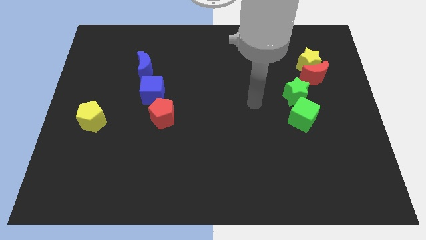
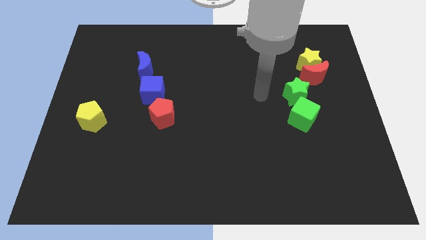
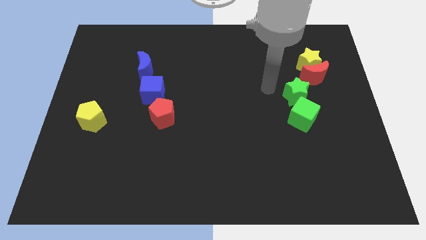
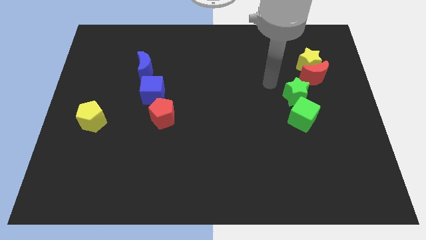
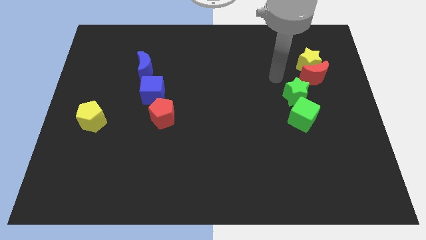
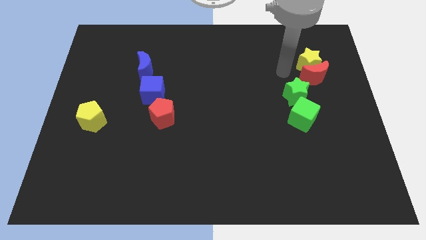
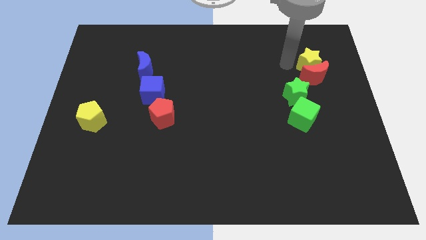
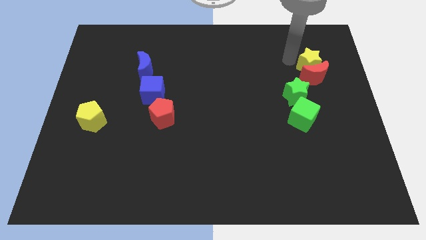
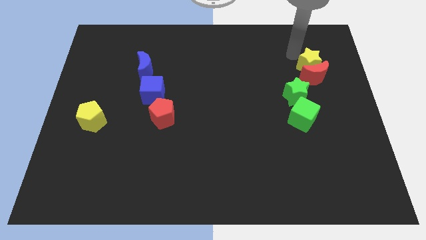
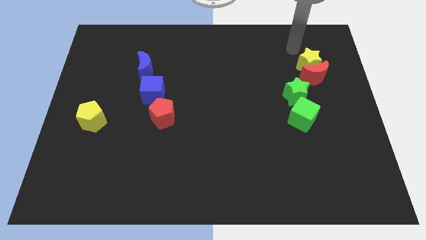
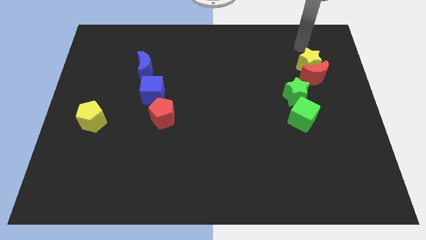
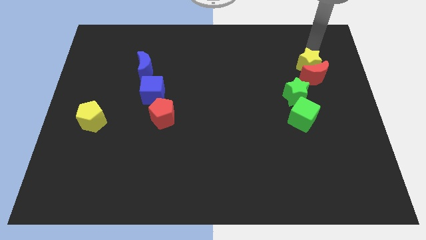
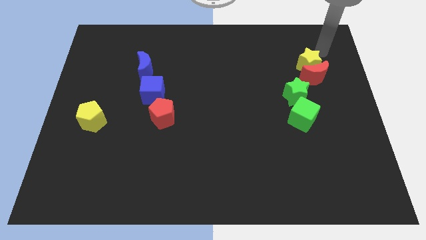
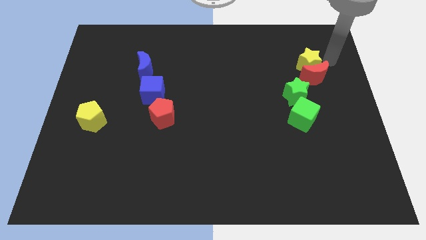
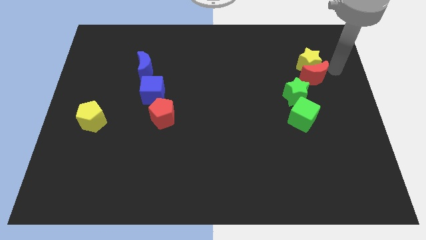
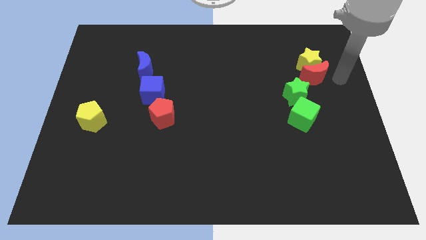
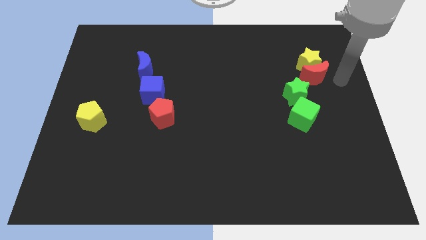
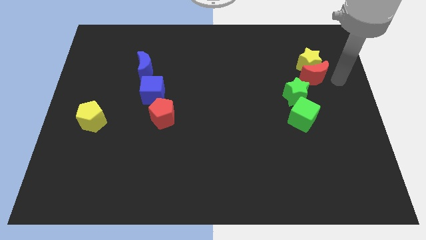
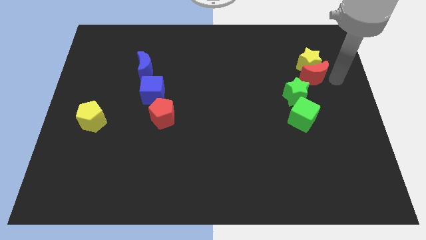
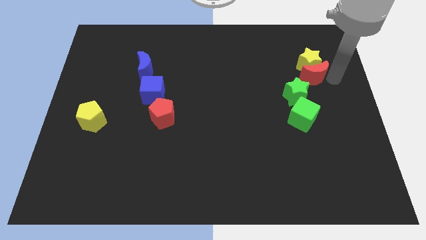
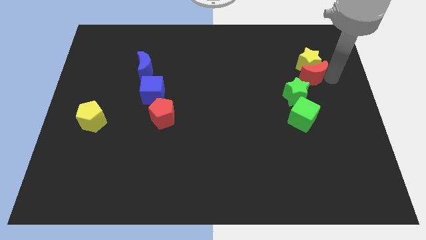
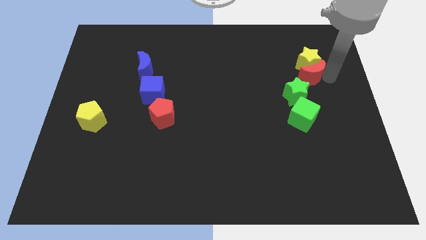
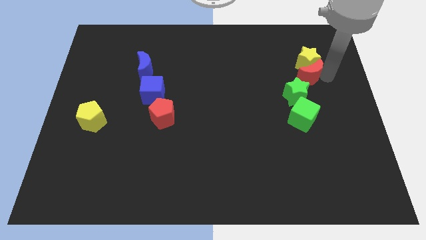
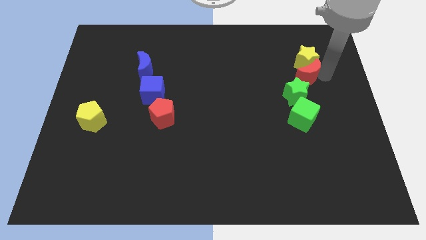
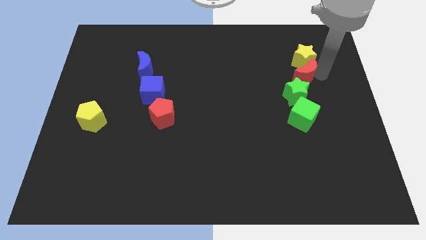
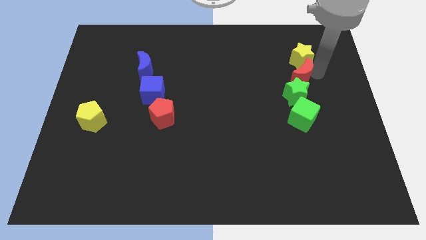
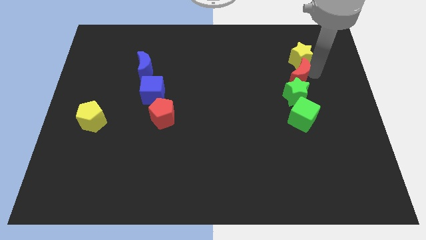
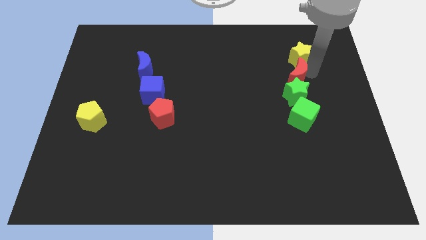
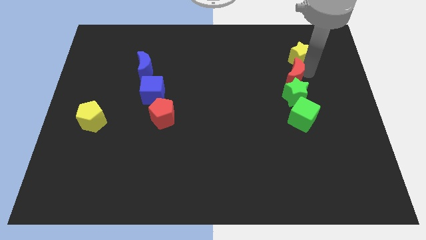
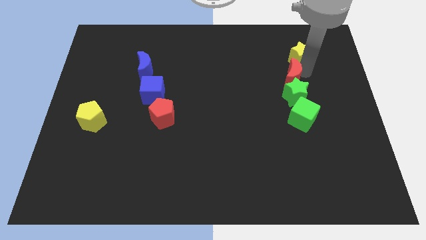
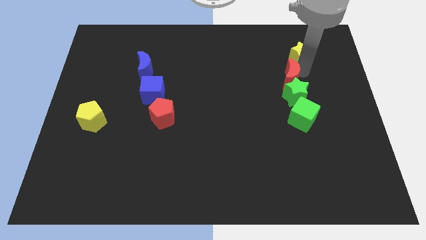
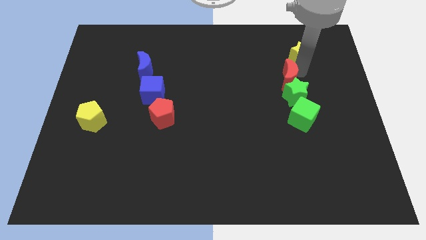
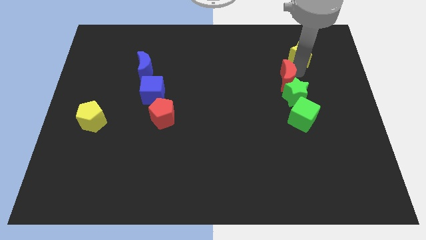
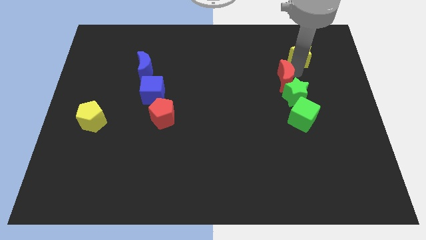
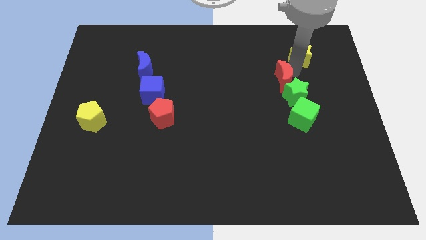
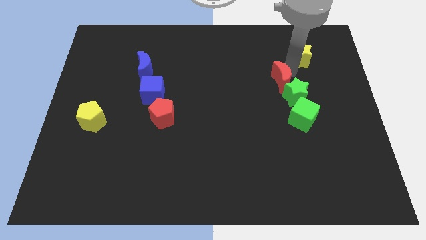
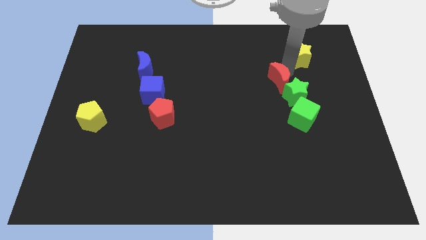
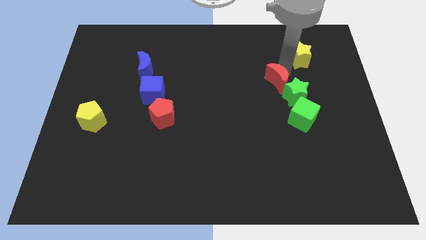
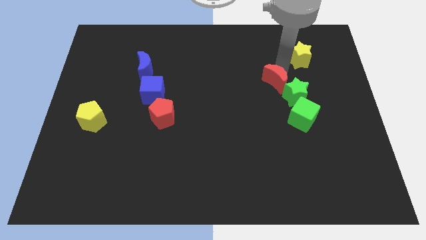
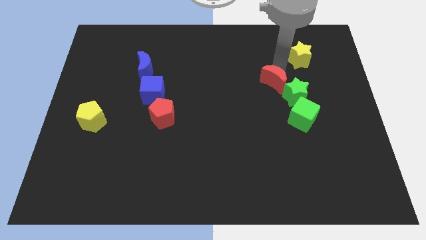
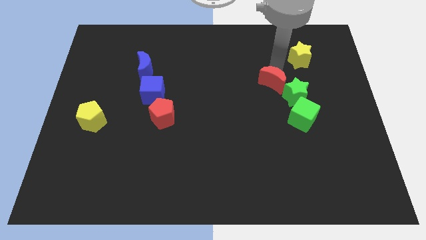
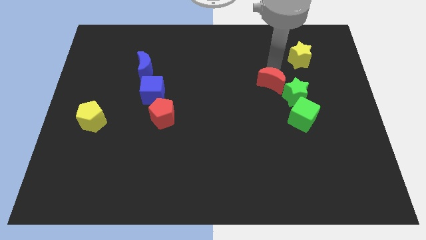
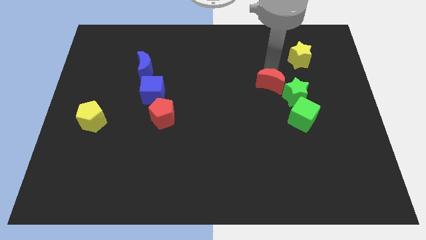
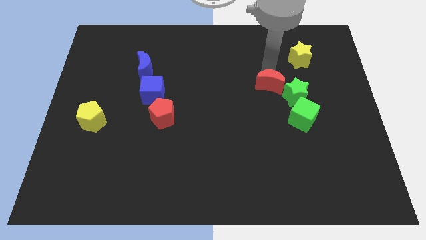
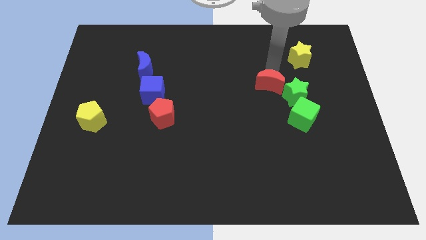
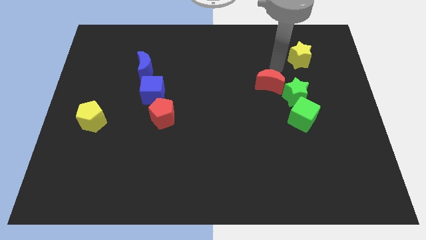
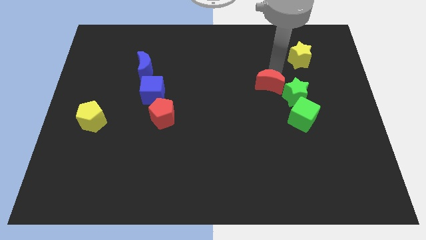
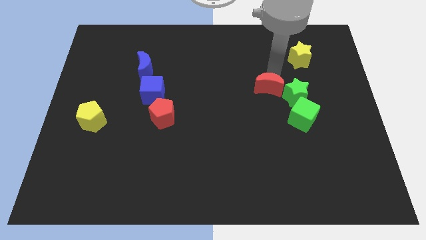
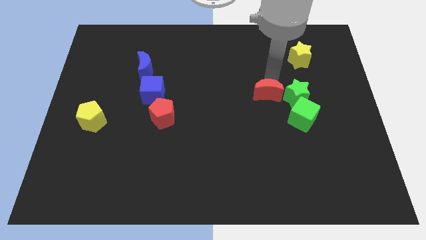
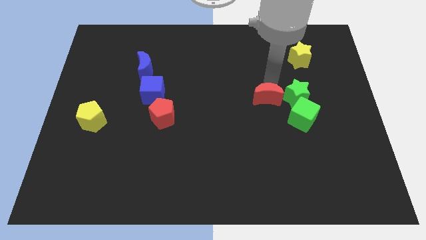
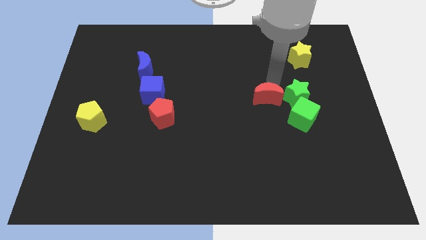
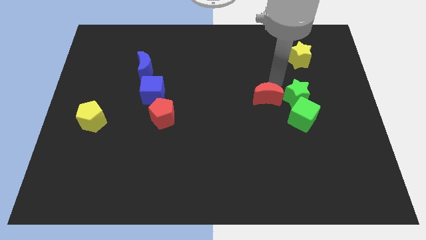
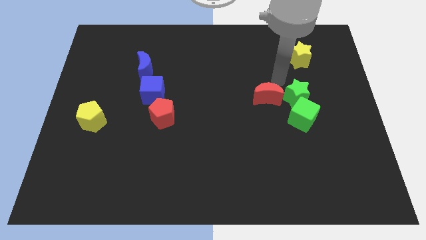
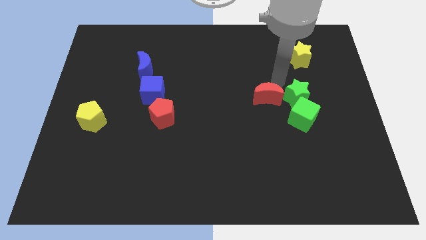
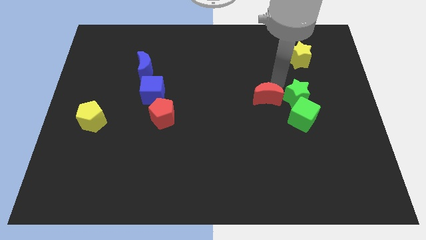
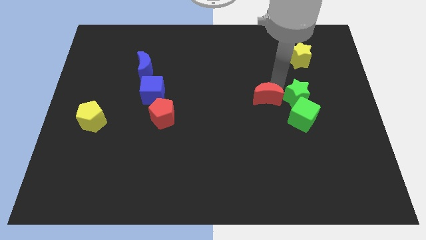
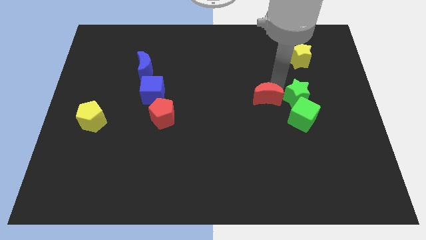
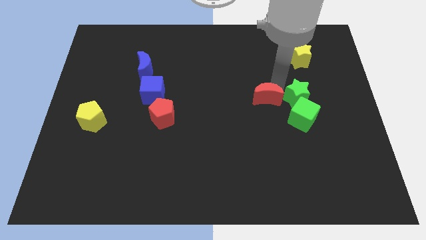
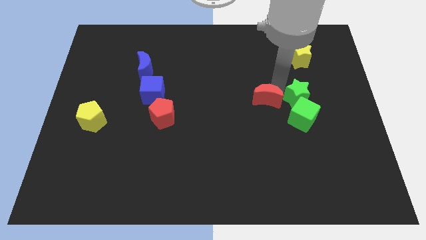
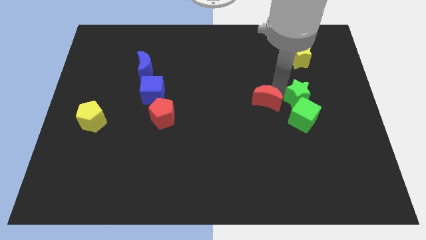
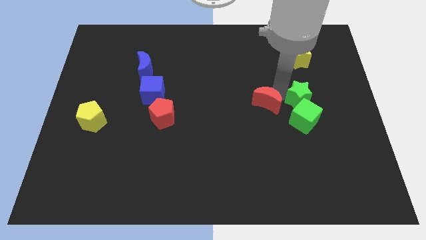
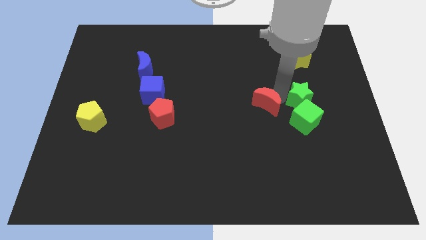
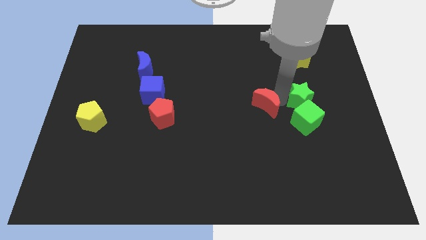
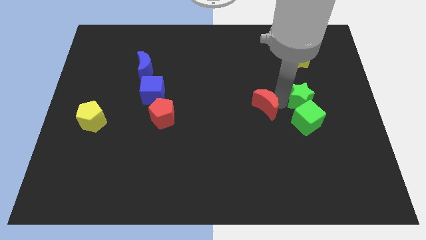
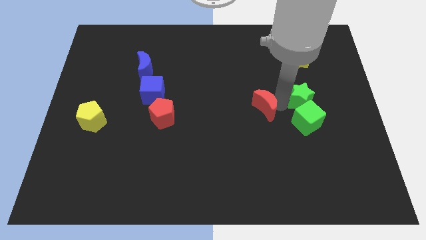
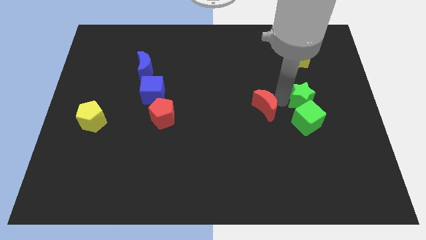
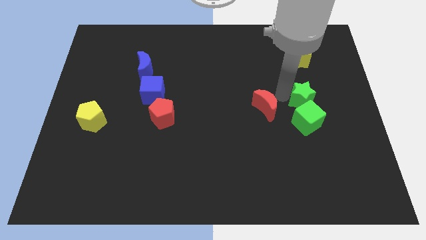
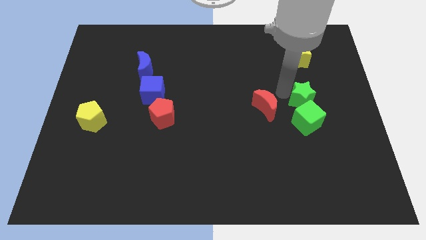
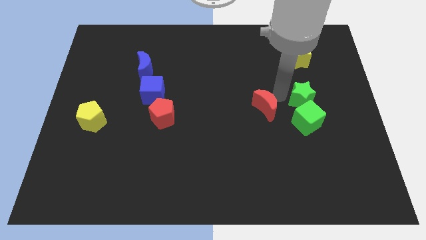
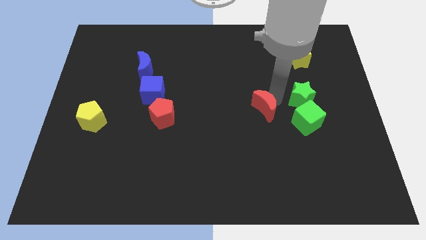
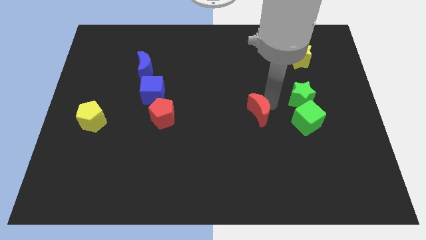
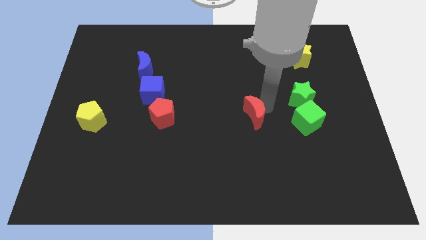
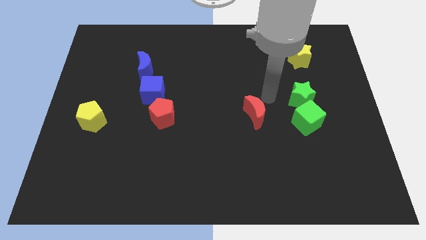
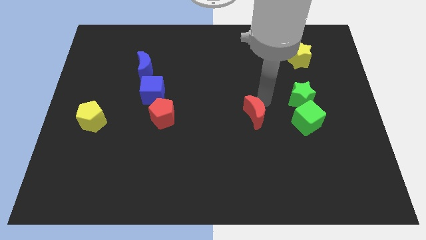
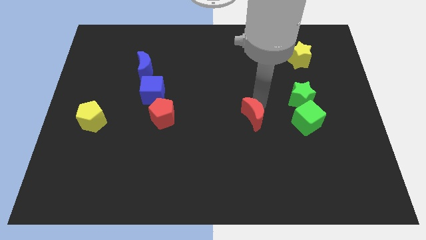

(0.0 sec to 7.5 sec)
push the red moon downwards and to the left

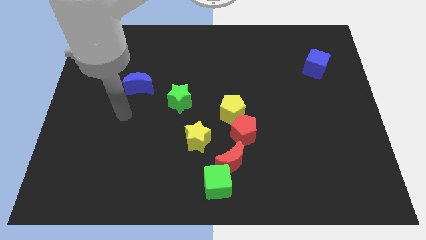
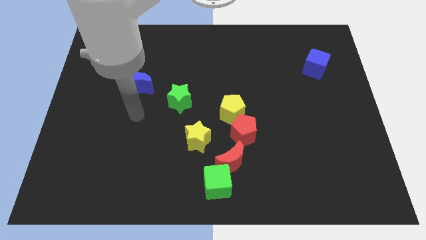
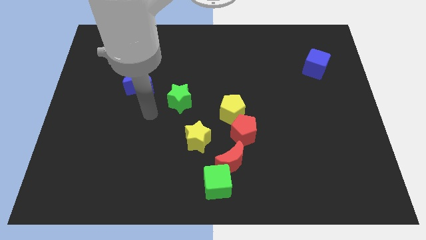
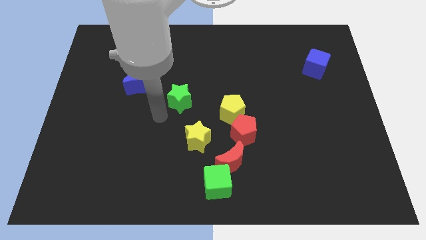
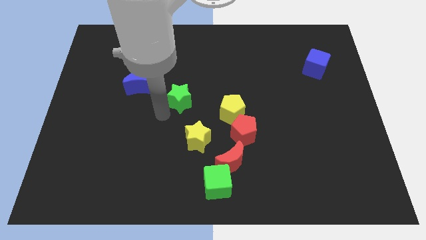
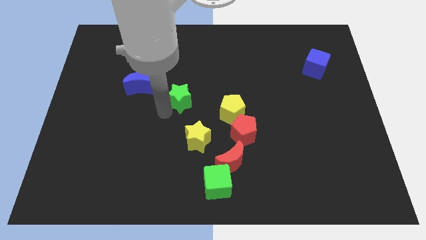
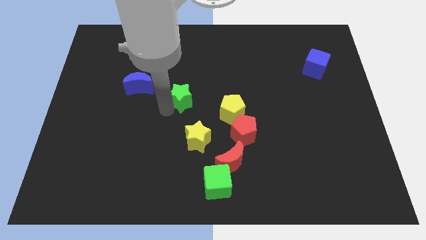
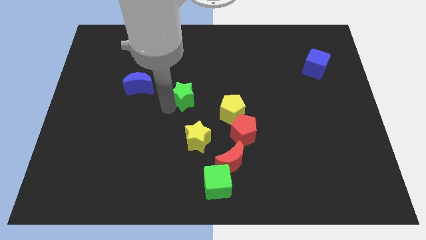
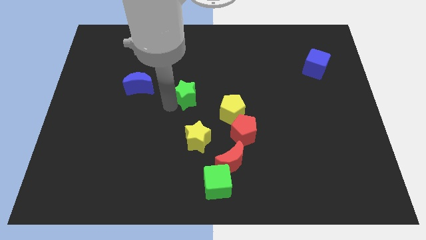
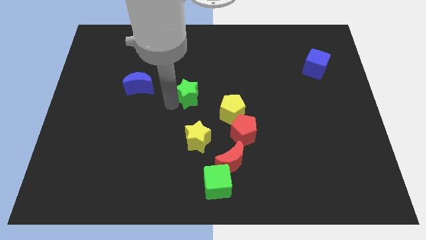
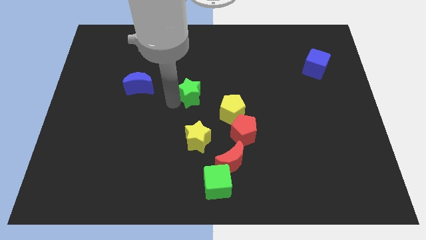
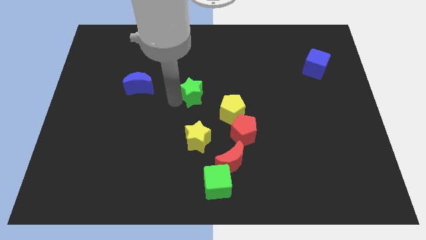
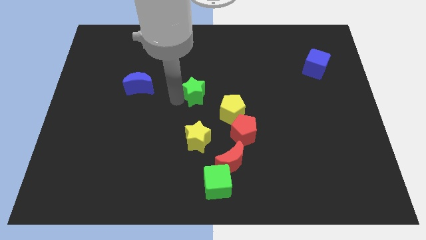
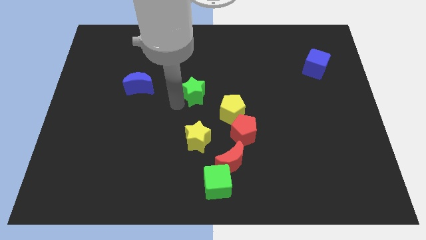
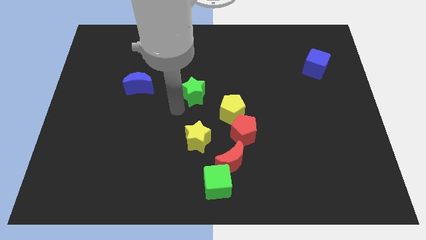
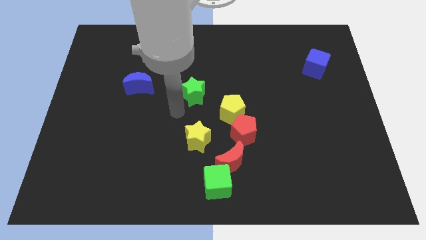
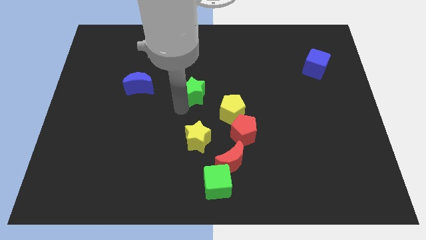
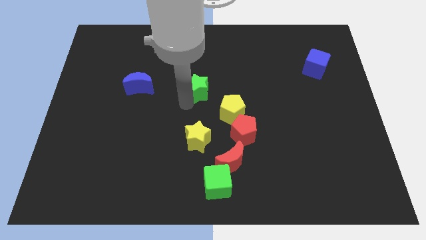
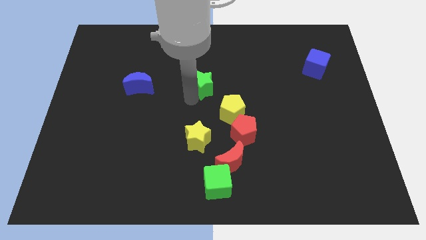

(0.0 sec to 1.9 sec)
slide the green star somewhat up and right diagonally
